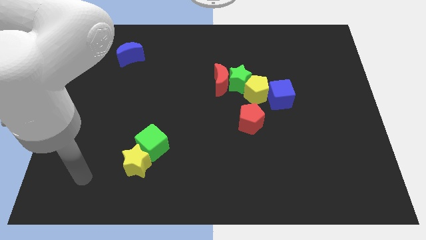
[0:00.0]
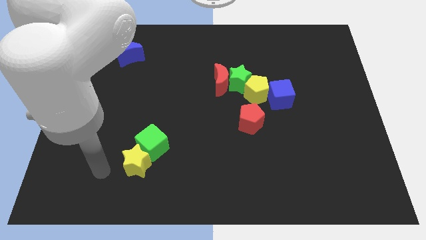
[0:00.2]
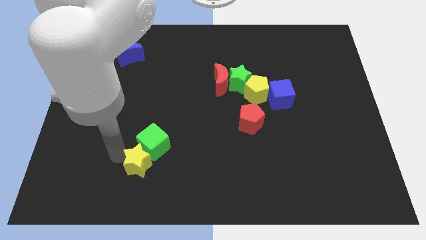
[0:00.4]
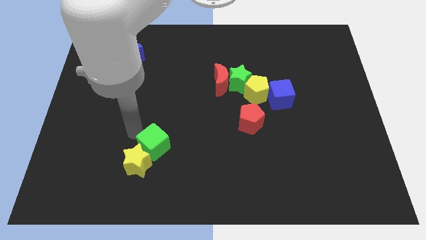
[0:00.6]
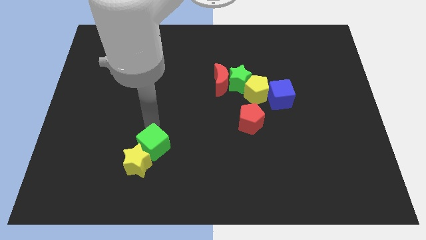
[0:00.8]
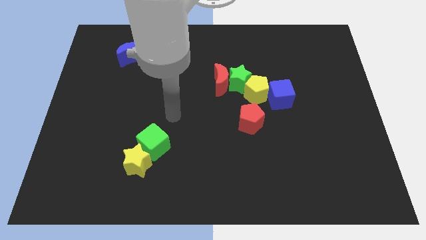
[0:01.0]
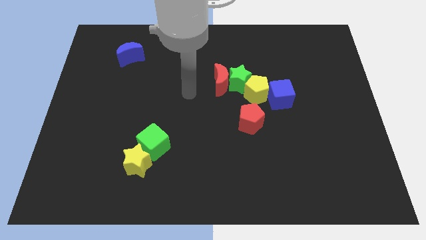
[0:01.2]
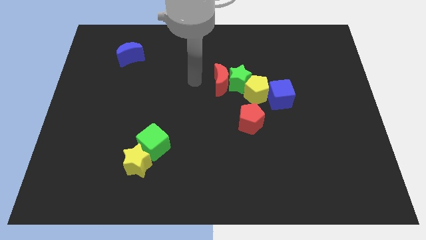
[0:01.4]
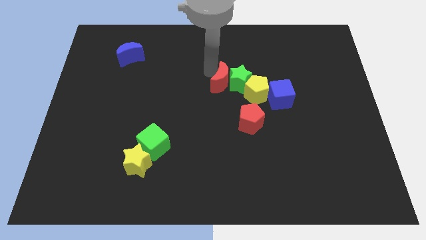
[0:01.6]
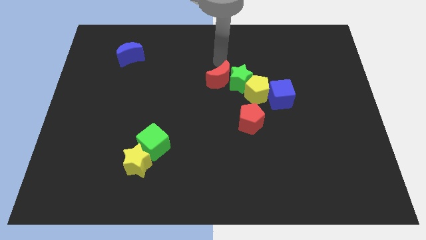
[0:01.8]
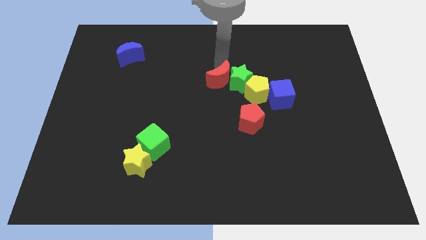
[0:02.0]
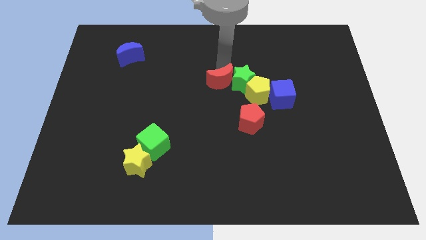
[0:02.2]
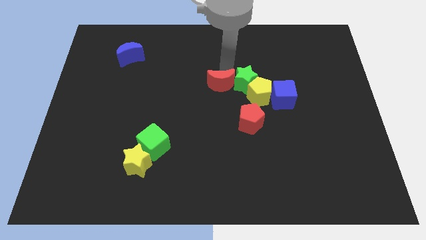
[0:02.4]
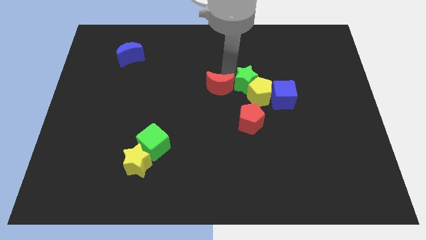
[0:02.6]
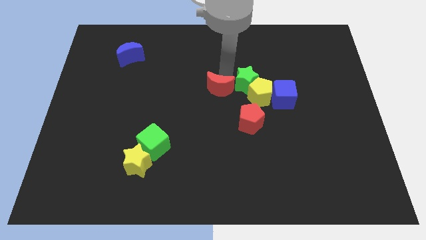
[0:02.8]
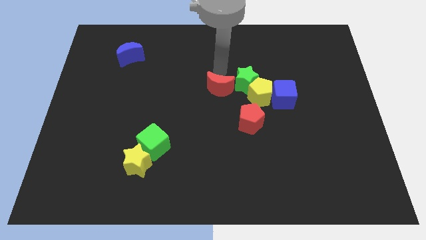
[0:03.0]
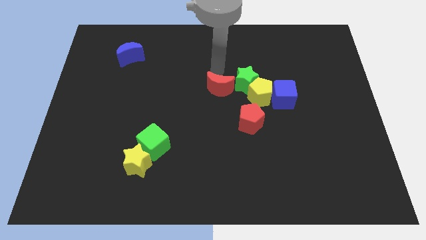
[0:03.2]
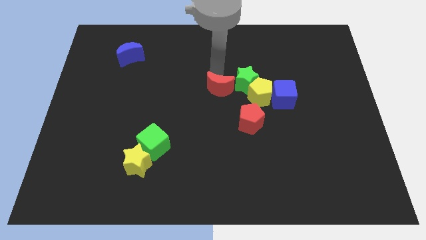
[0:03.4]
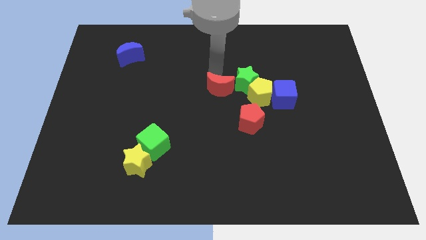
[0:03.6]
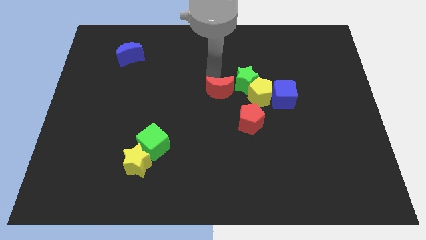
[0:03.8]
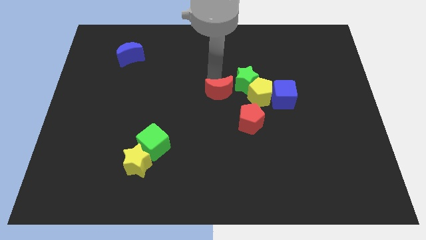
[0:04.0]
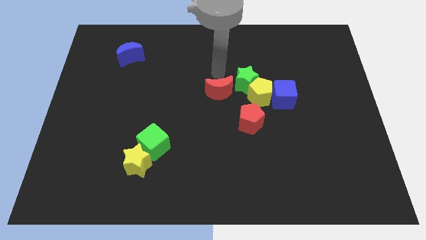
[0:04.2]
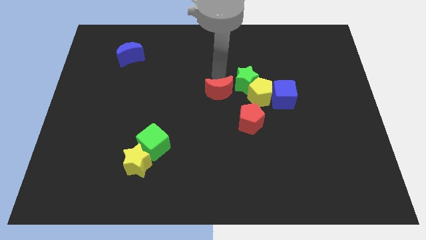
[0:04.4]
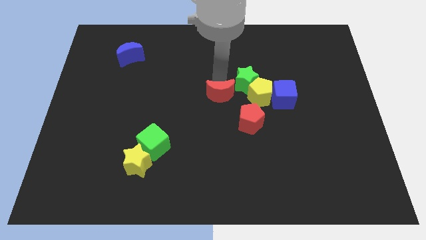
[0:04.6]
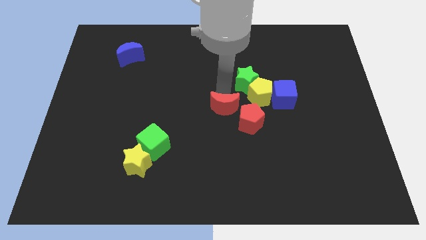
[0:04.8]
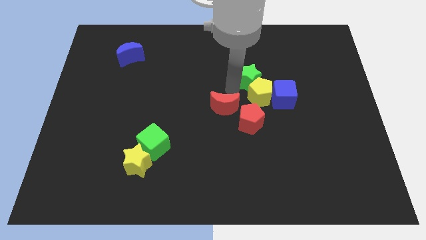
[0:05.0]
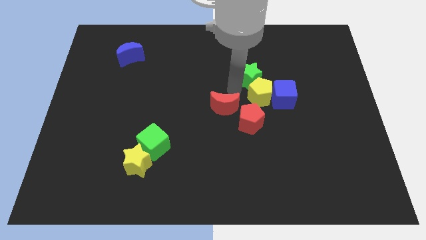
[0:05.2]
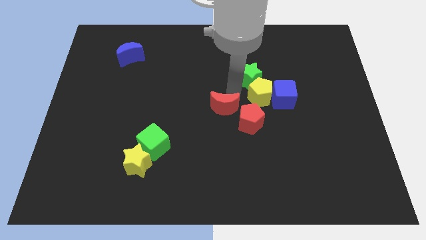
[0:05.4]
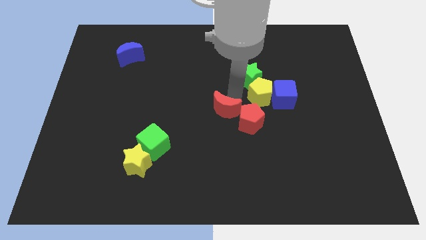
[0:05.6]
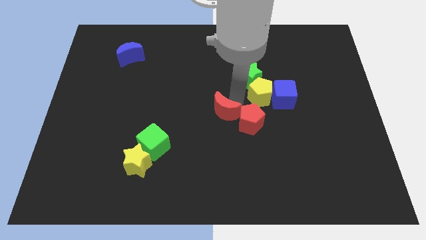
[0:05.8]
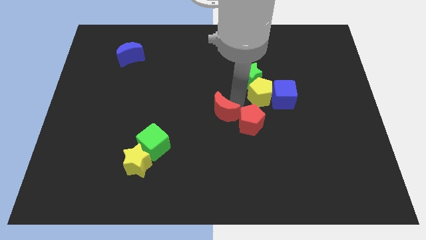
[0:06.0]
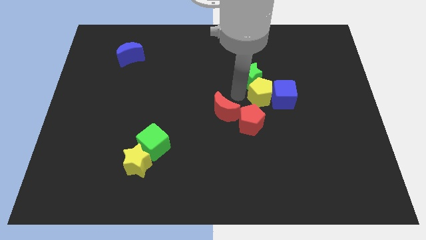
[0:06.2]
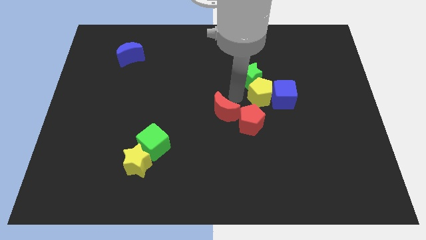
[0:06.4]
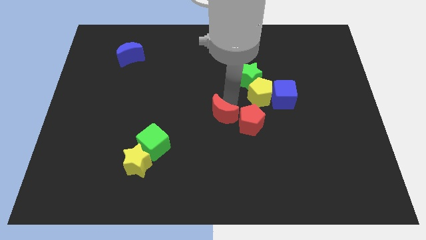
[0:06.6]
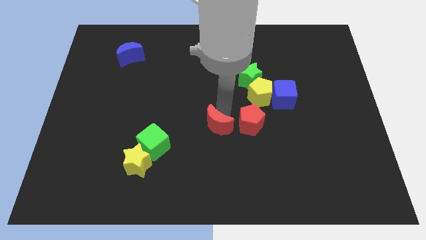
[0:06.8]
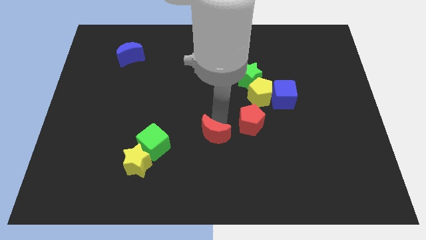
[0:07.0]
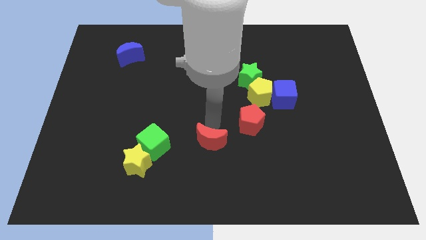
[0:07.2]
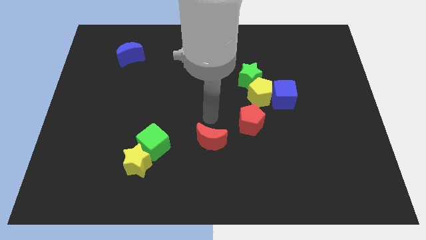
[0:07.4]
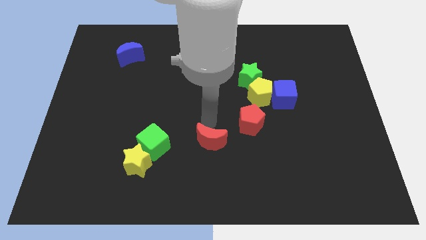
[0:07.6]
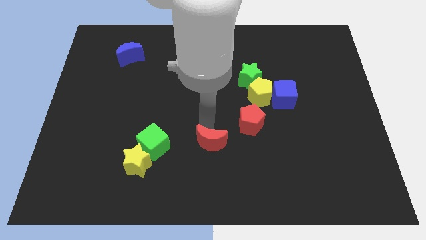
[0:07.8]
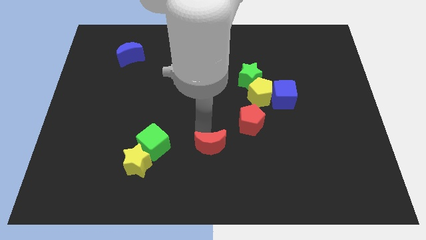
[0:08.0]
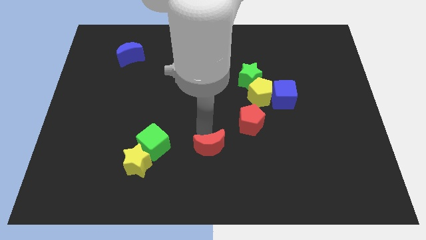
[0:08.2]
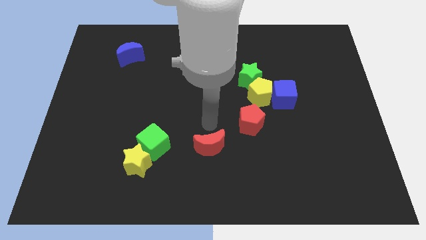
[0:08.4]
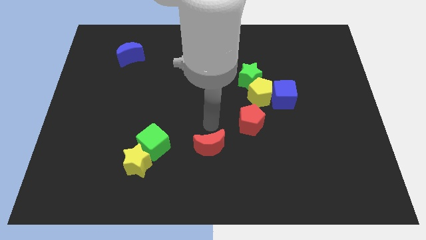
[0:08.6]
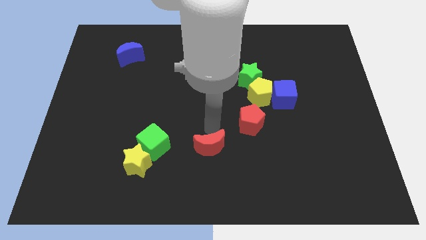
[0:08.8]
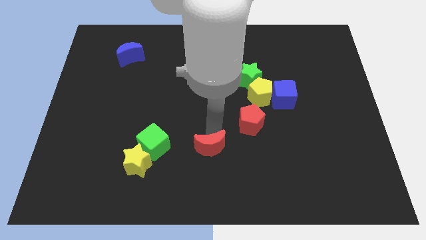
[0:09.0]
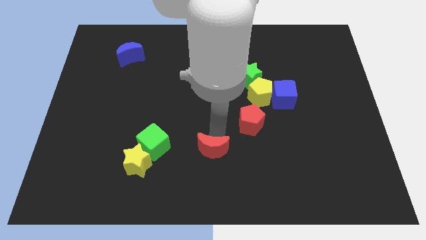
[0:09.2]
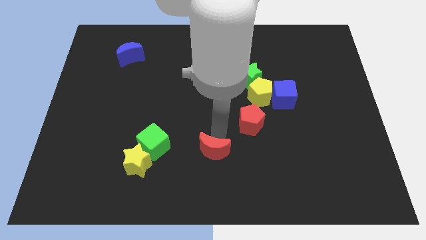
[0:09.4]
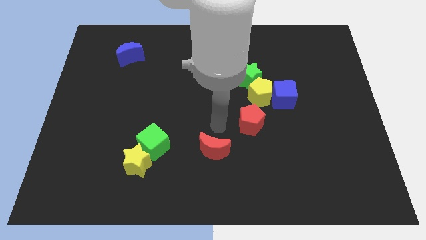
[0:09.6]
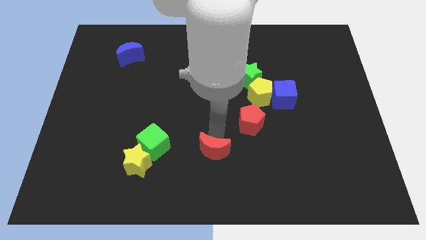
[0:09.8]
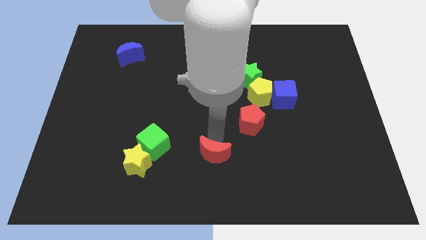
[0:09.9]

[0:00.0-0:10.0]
slide the red moon to the bottom

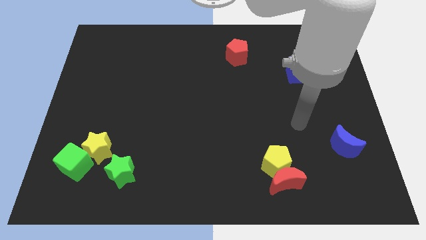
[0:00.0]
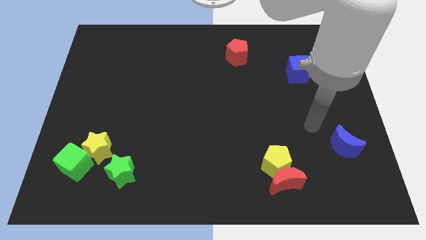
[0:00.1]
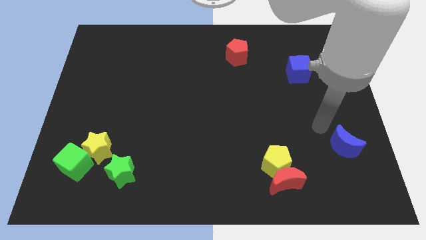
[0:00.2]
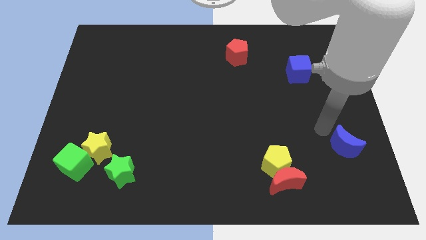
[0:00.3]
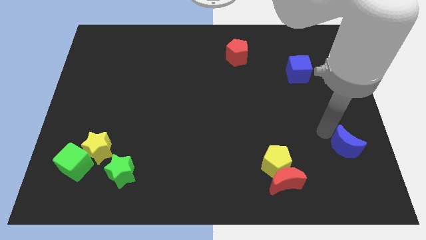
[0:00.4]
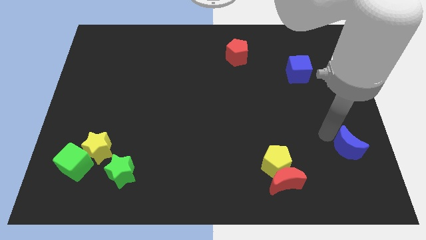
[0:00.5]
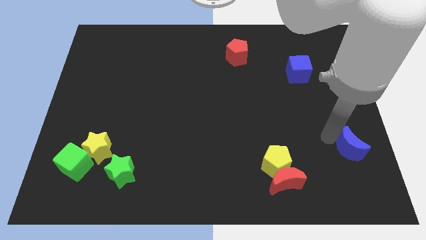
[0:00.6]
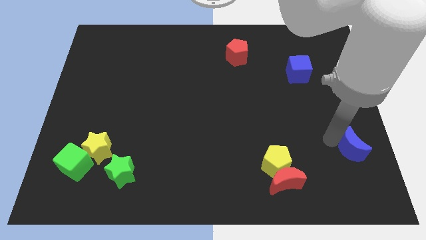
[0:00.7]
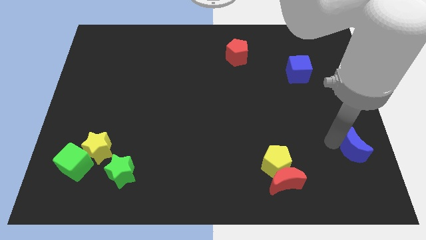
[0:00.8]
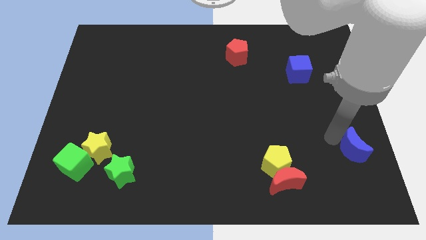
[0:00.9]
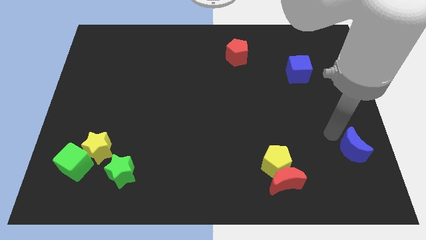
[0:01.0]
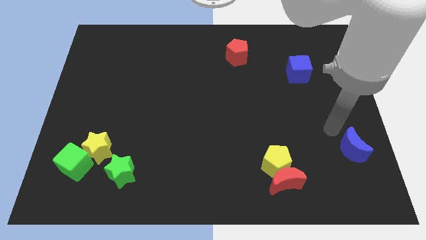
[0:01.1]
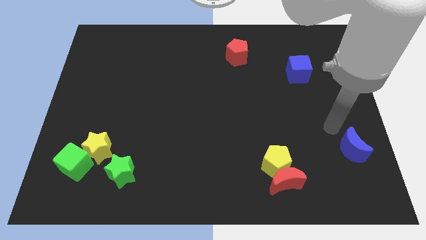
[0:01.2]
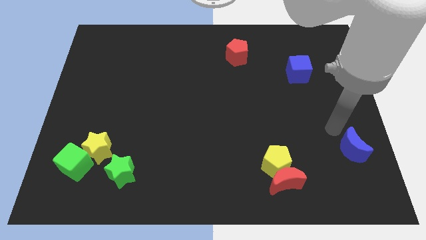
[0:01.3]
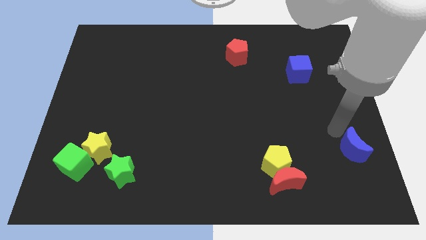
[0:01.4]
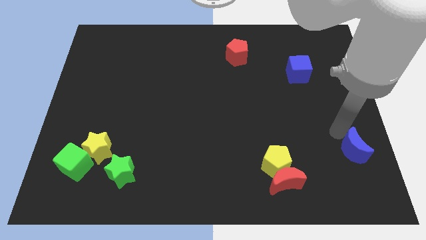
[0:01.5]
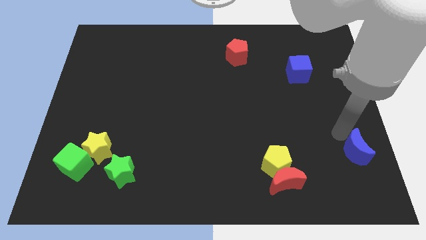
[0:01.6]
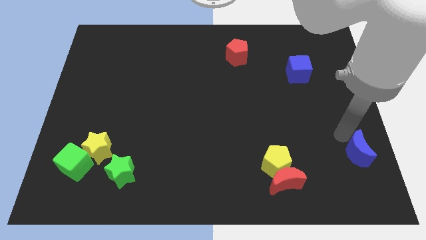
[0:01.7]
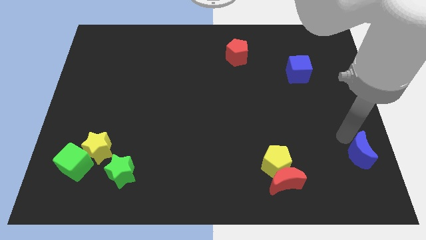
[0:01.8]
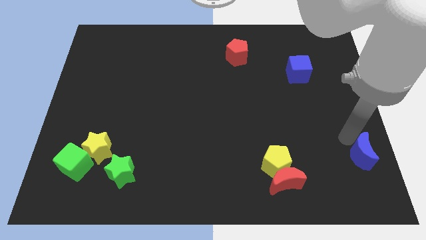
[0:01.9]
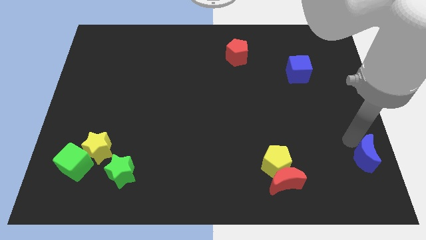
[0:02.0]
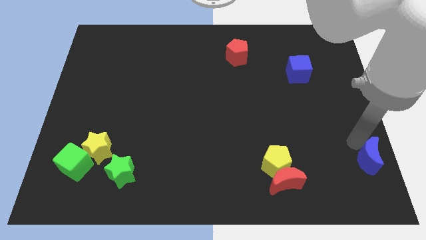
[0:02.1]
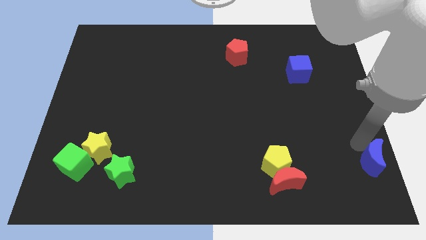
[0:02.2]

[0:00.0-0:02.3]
slide the blue moon to the bottom right
